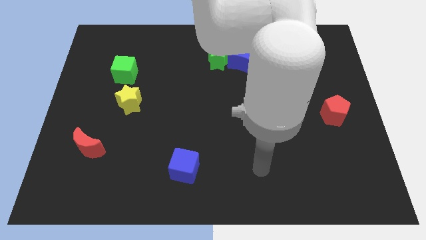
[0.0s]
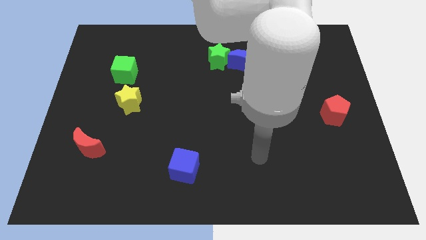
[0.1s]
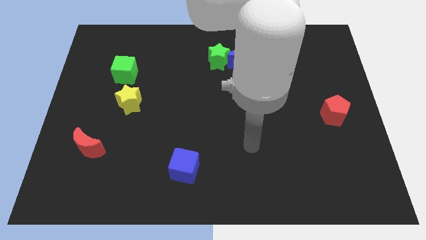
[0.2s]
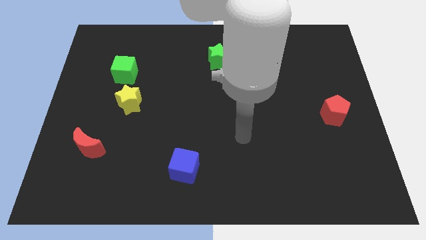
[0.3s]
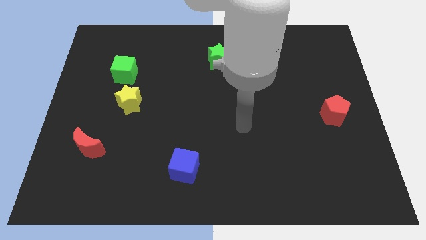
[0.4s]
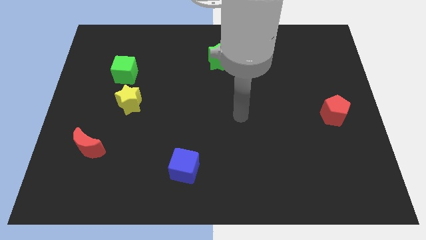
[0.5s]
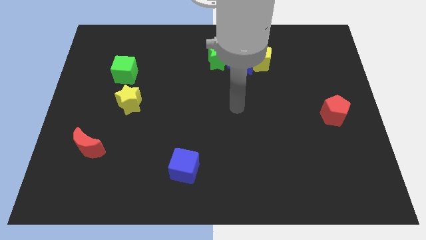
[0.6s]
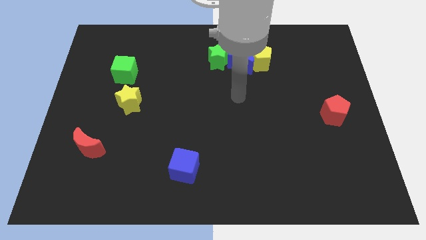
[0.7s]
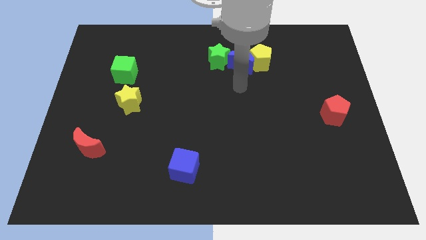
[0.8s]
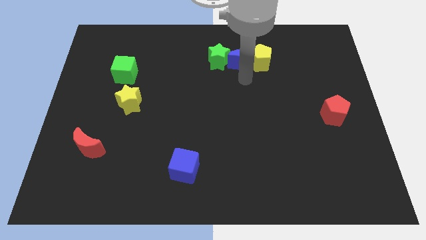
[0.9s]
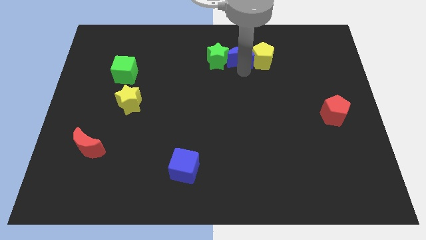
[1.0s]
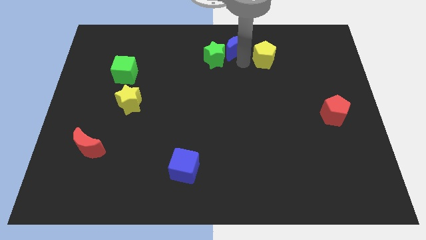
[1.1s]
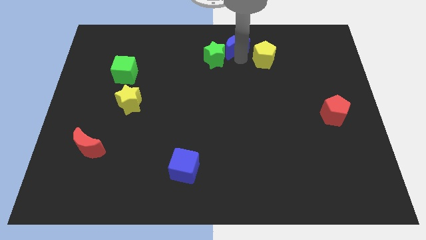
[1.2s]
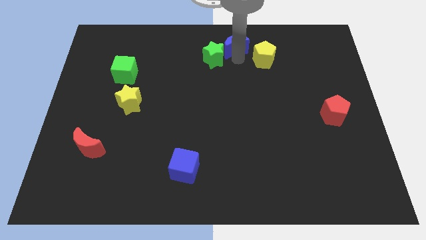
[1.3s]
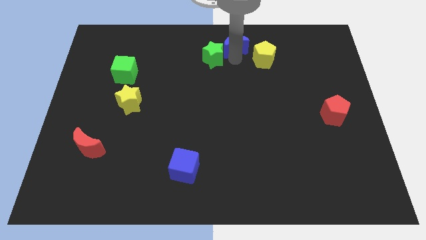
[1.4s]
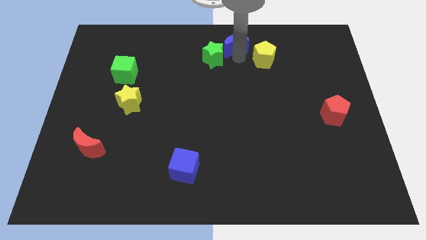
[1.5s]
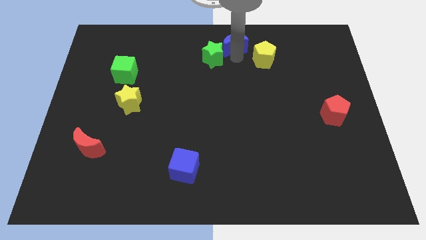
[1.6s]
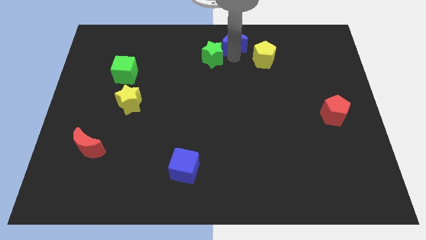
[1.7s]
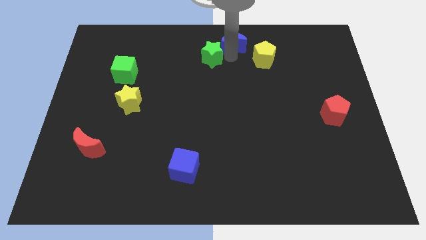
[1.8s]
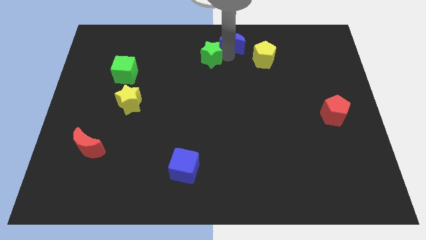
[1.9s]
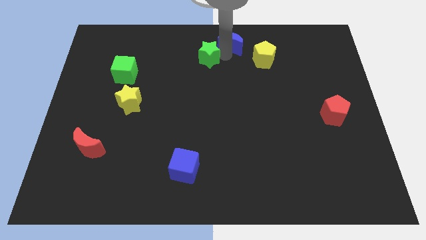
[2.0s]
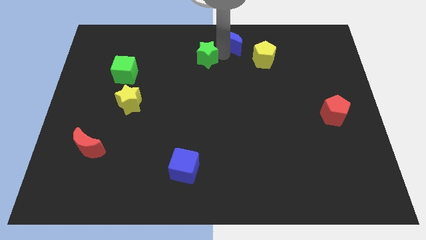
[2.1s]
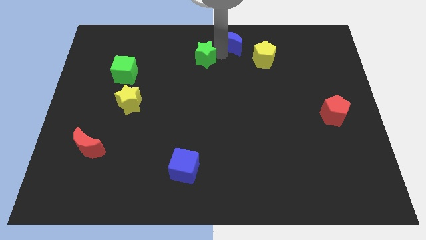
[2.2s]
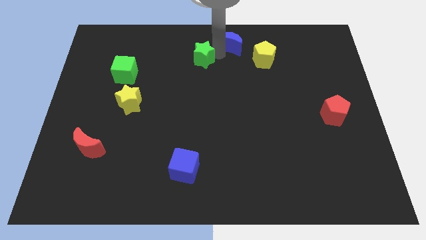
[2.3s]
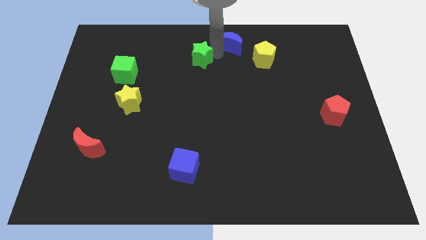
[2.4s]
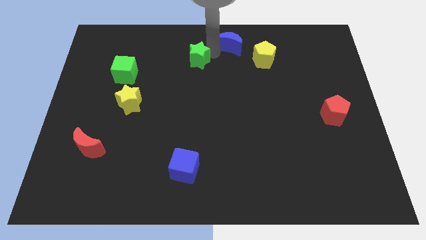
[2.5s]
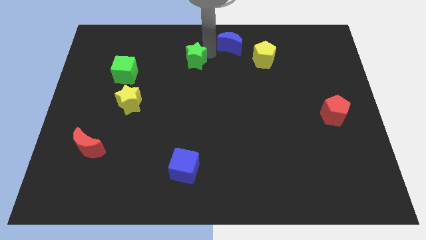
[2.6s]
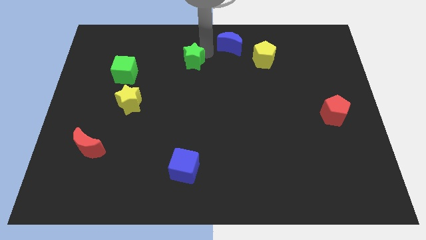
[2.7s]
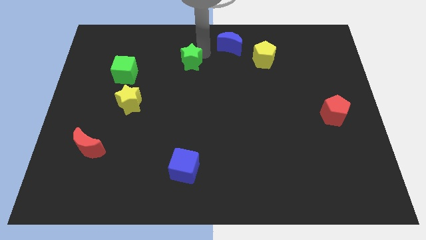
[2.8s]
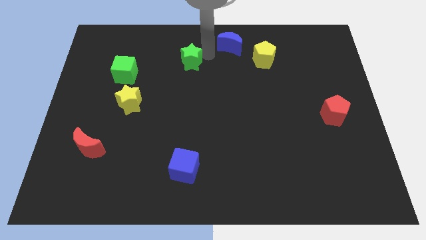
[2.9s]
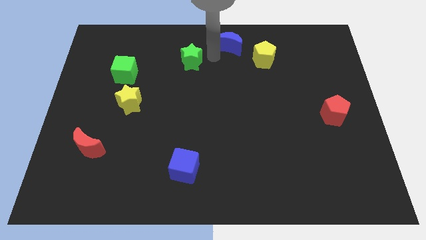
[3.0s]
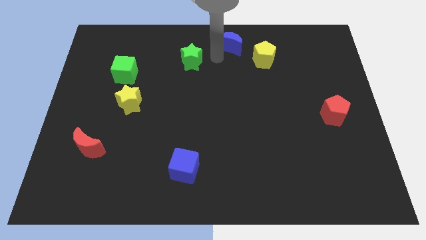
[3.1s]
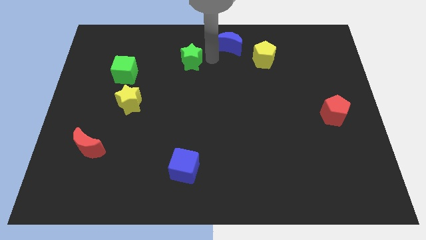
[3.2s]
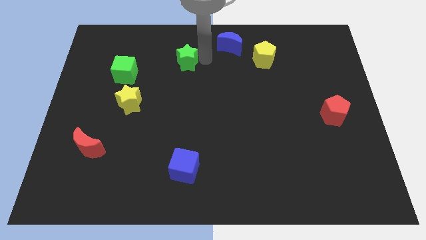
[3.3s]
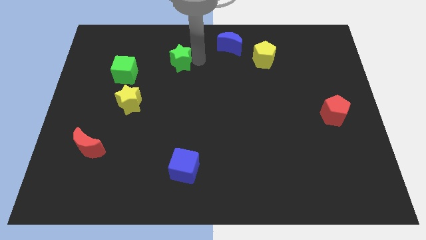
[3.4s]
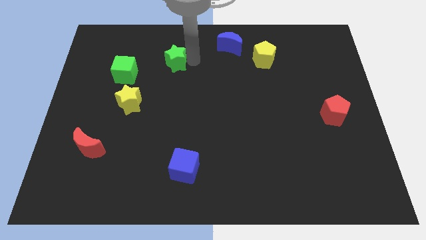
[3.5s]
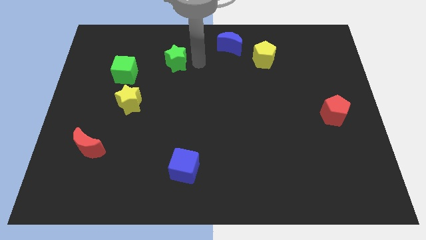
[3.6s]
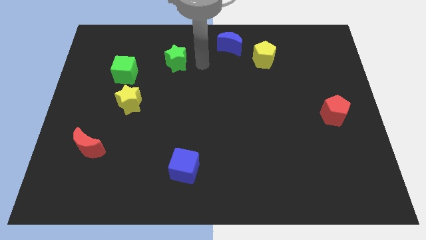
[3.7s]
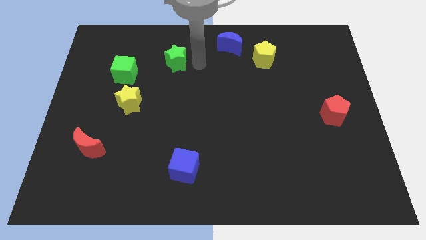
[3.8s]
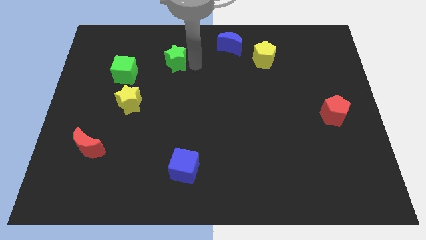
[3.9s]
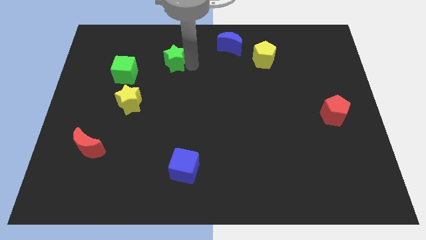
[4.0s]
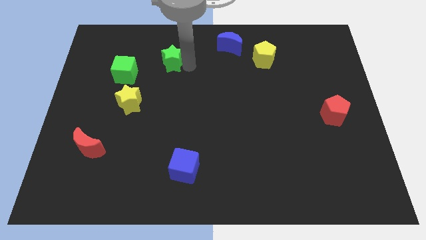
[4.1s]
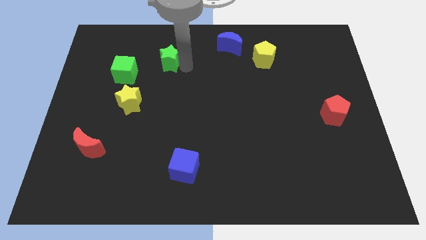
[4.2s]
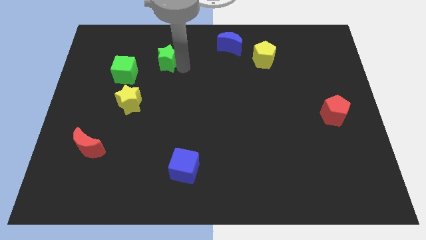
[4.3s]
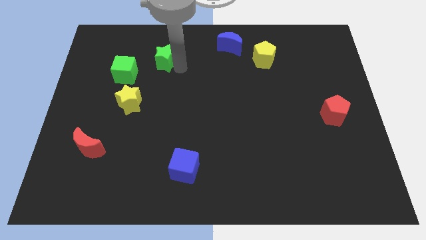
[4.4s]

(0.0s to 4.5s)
push the green star to the top right of the green cube

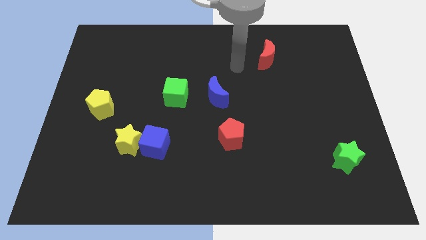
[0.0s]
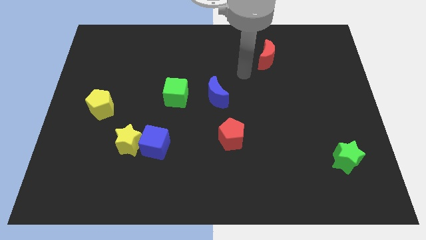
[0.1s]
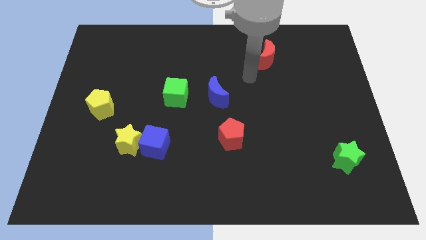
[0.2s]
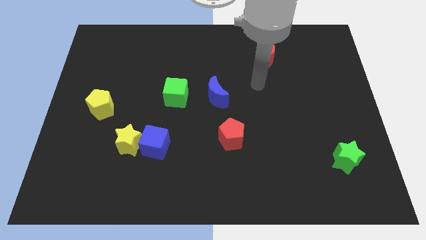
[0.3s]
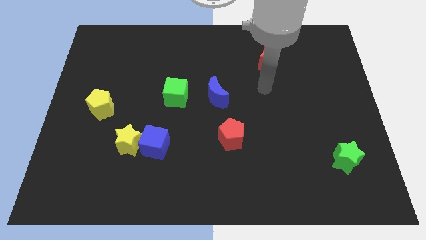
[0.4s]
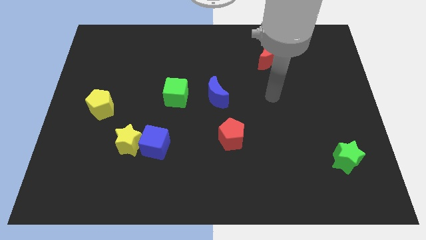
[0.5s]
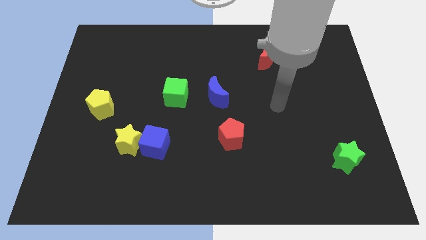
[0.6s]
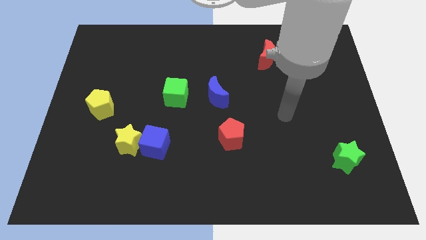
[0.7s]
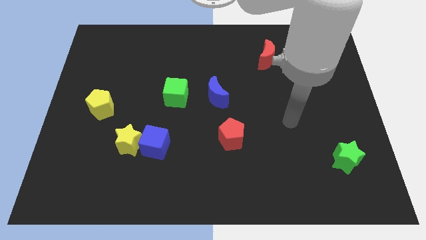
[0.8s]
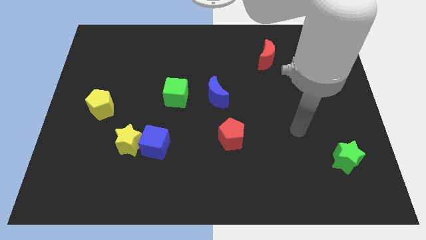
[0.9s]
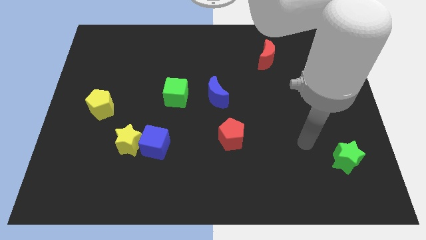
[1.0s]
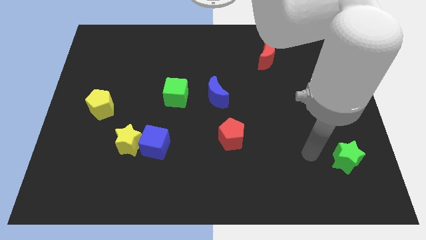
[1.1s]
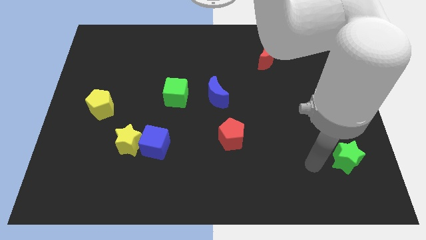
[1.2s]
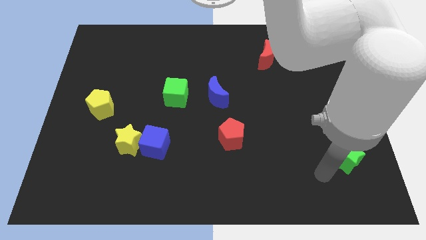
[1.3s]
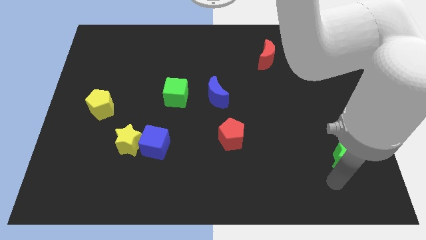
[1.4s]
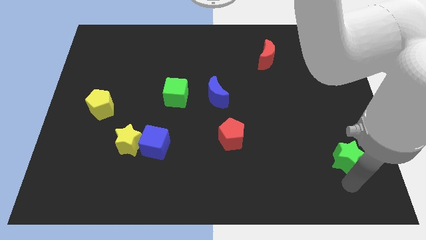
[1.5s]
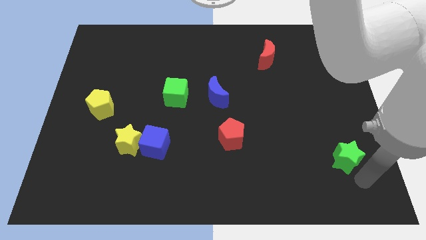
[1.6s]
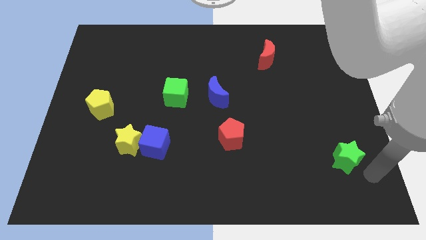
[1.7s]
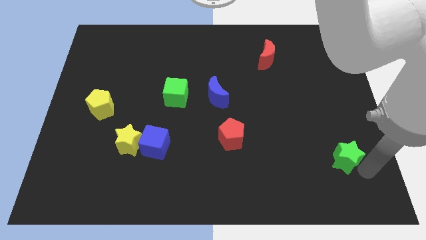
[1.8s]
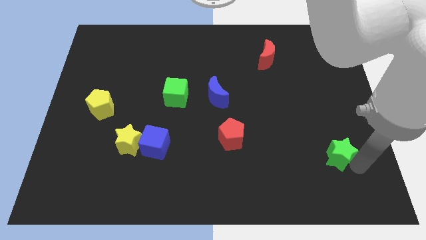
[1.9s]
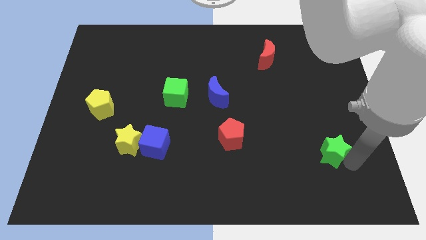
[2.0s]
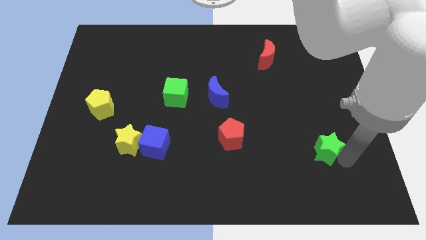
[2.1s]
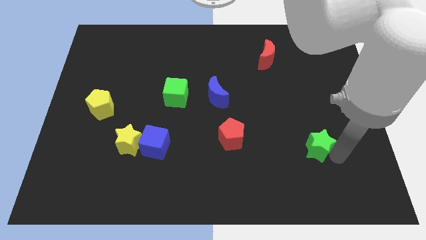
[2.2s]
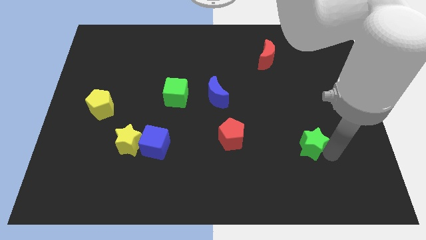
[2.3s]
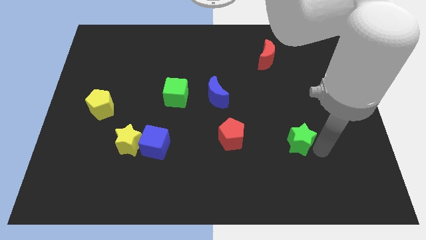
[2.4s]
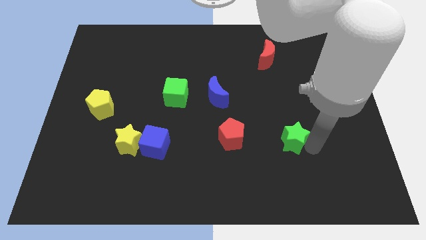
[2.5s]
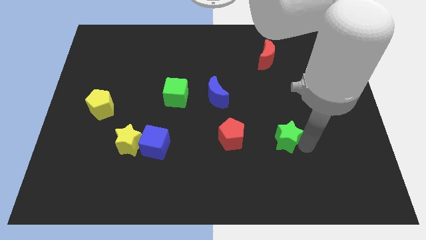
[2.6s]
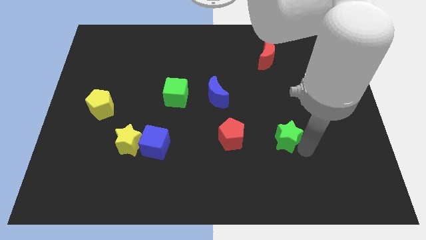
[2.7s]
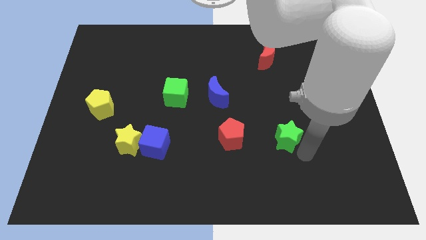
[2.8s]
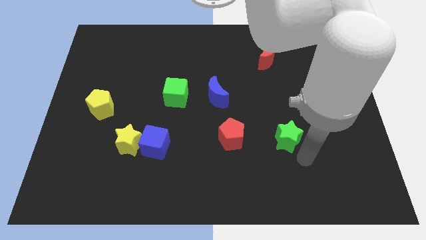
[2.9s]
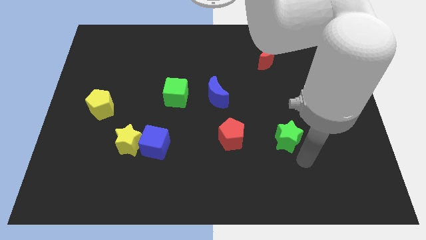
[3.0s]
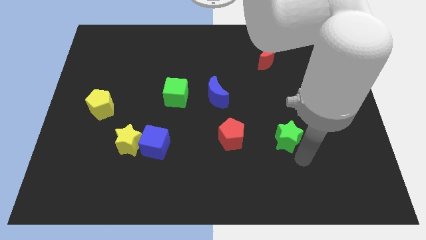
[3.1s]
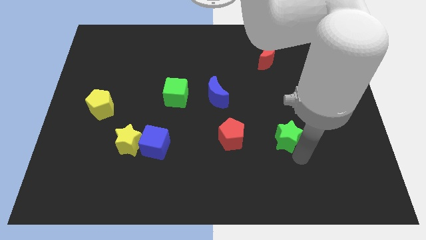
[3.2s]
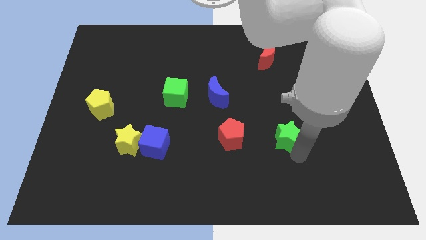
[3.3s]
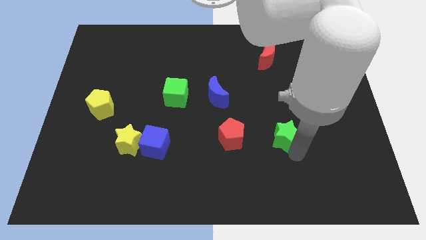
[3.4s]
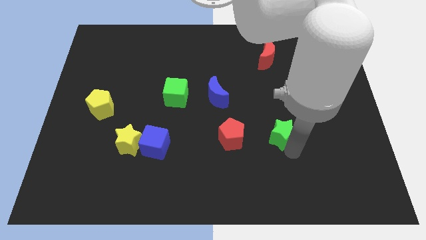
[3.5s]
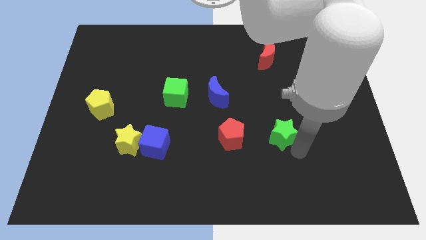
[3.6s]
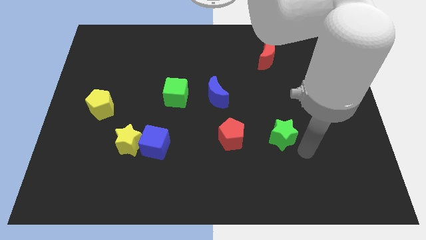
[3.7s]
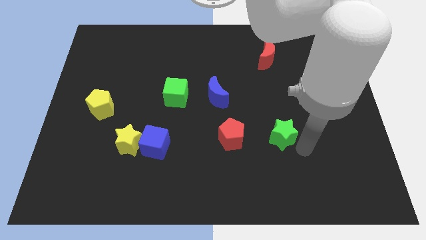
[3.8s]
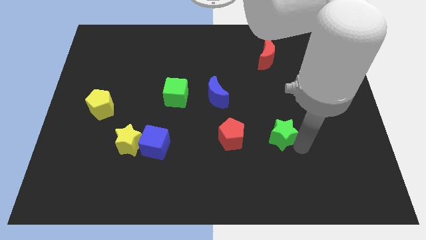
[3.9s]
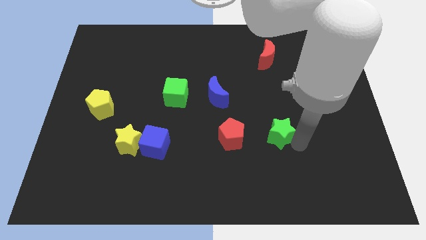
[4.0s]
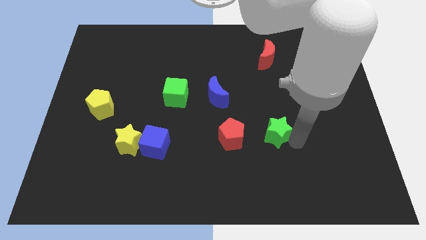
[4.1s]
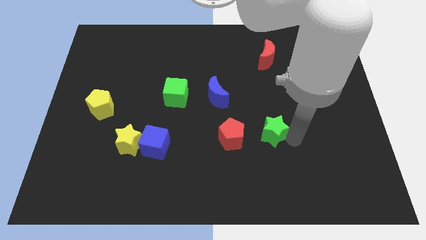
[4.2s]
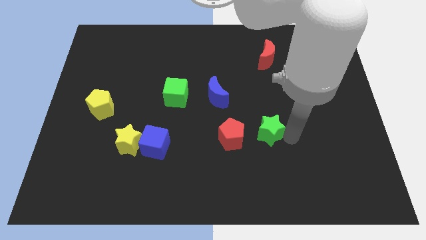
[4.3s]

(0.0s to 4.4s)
put the green star to the top right side of the red pentagon
